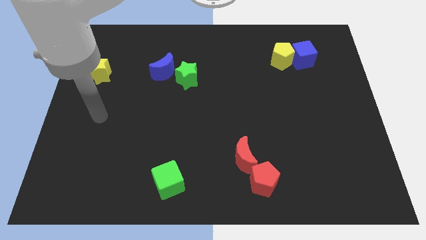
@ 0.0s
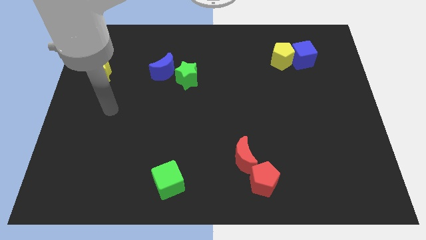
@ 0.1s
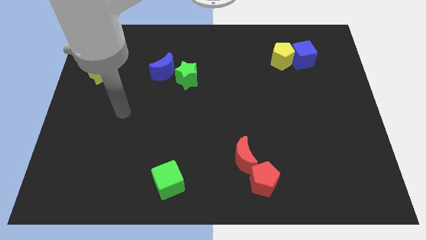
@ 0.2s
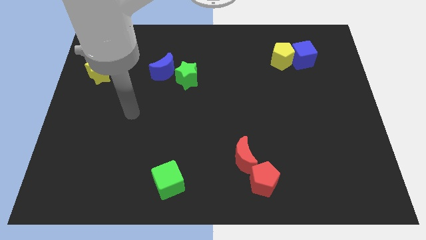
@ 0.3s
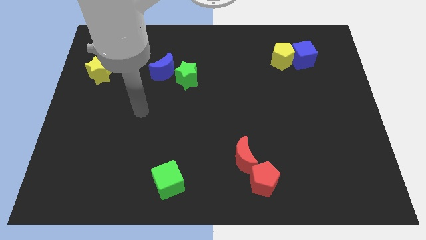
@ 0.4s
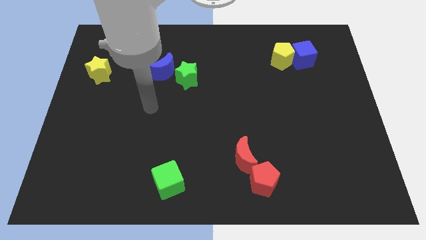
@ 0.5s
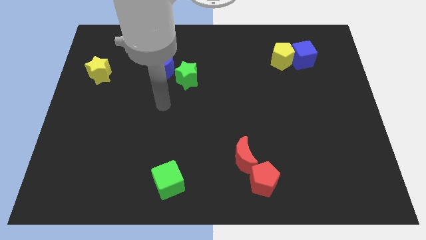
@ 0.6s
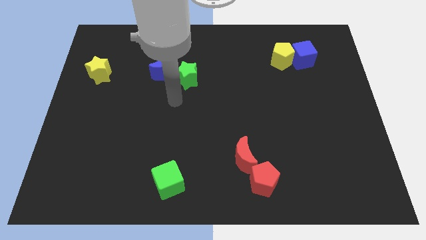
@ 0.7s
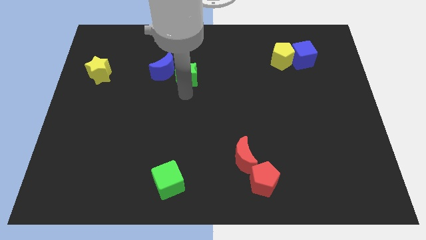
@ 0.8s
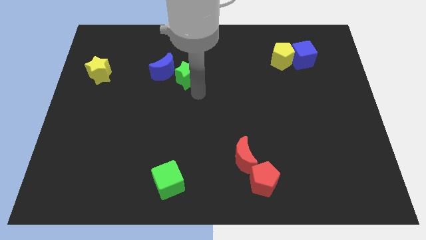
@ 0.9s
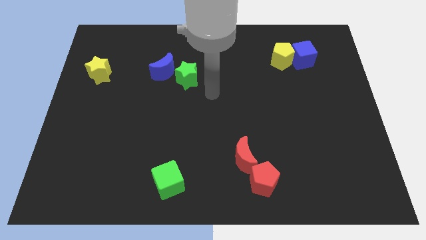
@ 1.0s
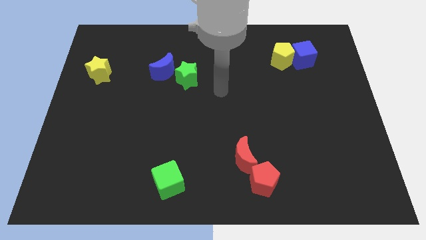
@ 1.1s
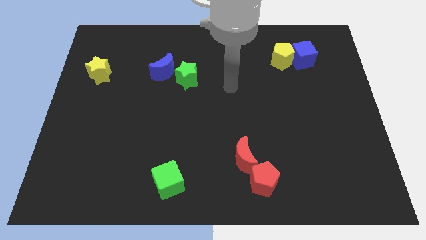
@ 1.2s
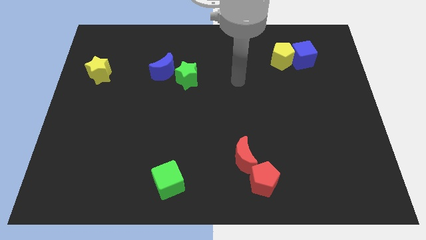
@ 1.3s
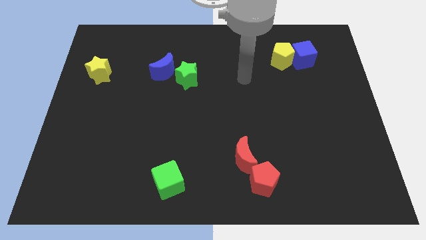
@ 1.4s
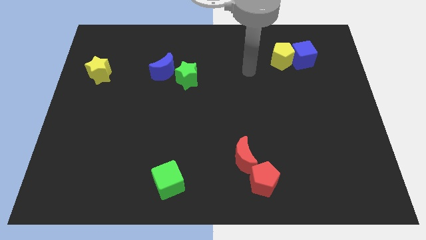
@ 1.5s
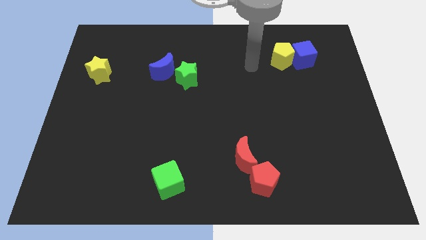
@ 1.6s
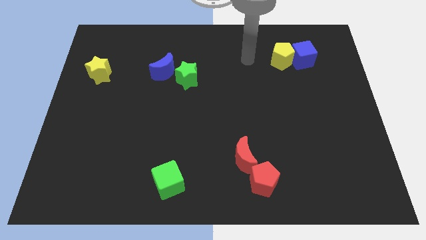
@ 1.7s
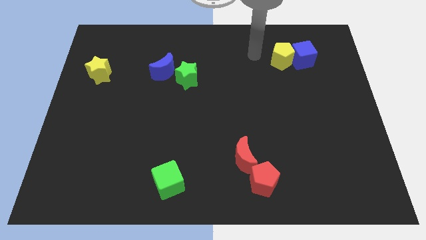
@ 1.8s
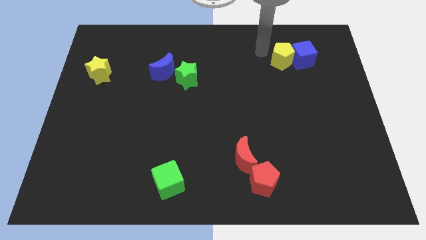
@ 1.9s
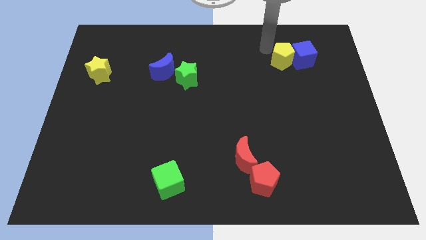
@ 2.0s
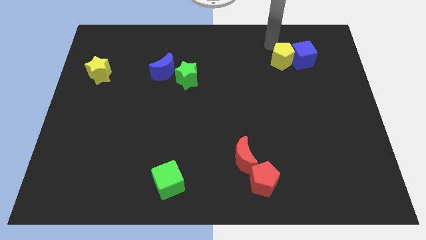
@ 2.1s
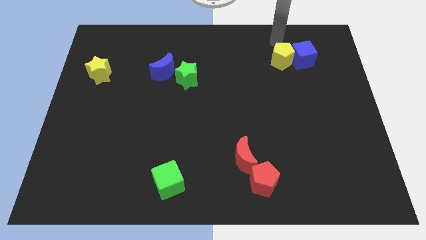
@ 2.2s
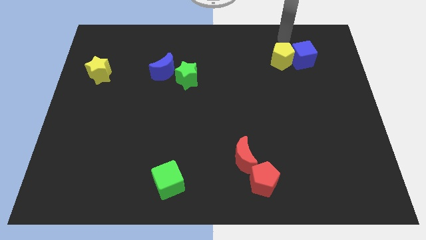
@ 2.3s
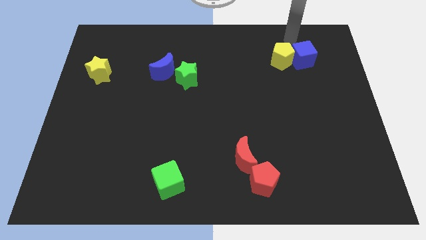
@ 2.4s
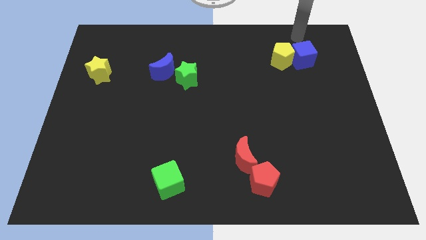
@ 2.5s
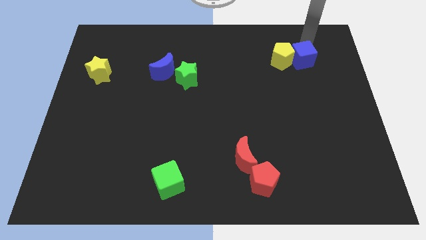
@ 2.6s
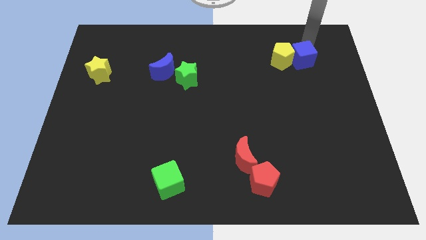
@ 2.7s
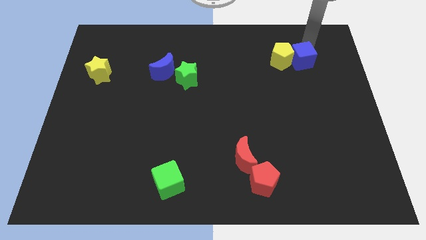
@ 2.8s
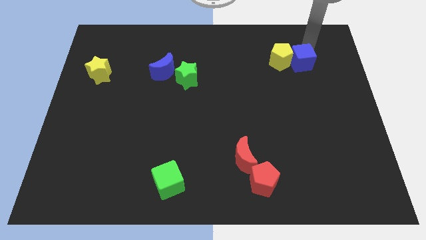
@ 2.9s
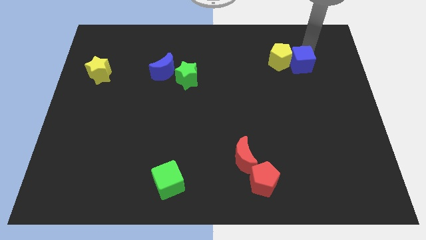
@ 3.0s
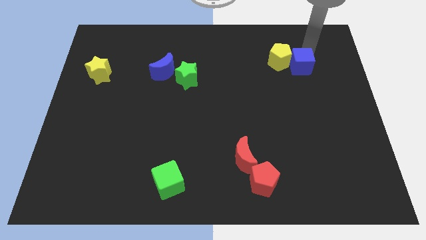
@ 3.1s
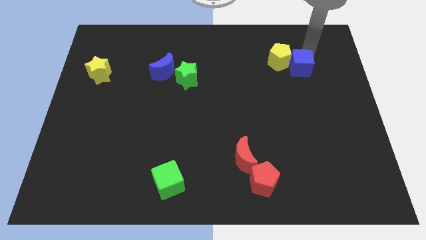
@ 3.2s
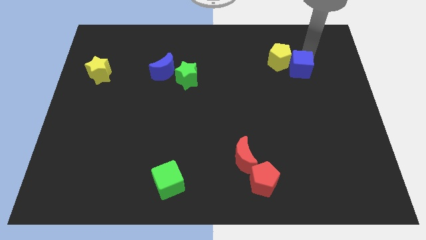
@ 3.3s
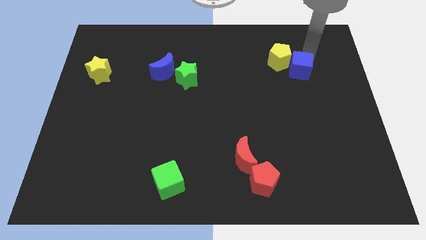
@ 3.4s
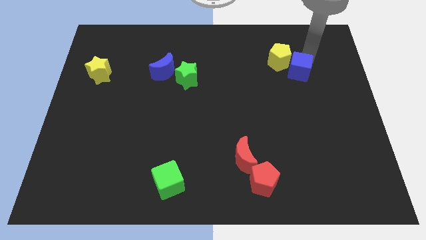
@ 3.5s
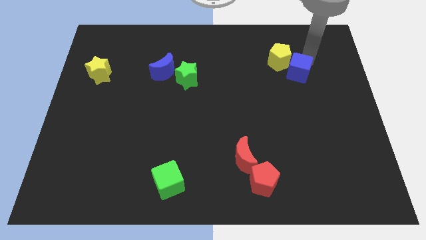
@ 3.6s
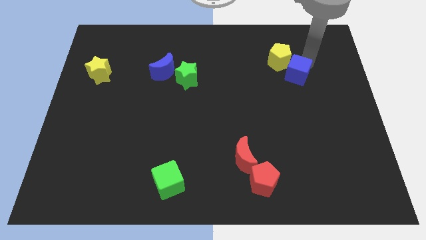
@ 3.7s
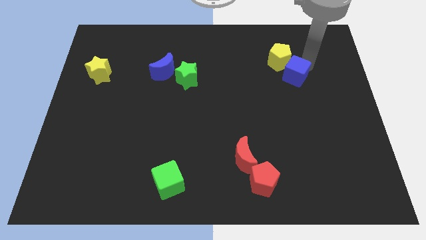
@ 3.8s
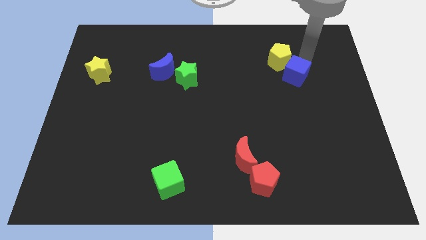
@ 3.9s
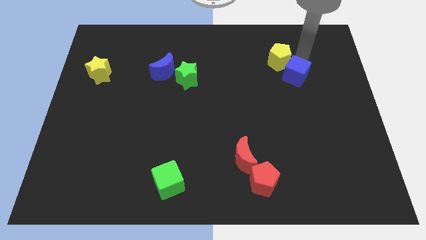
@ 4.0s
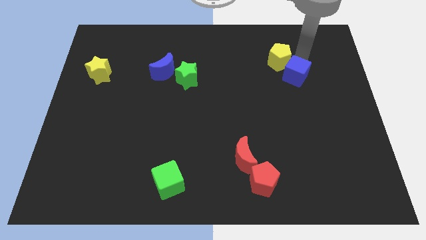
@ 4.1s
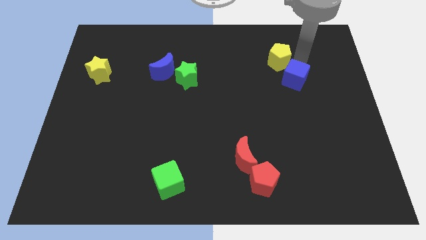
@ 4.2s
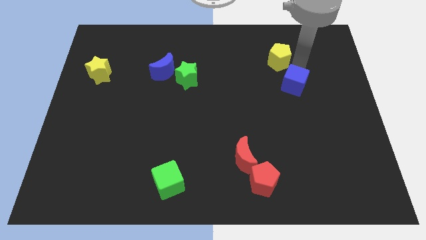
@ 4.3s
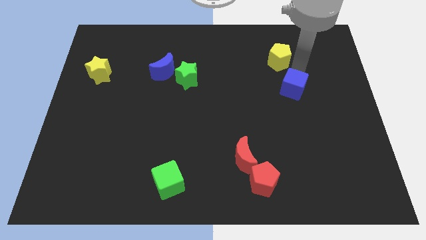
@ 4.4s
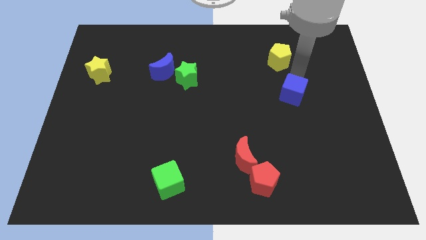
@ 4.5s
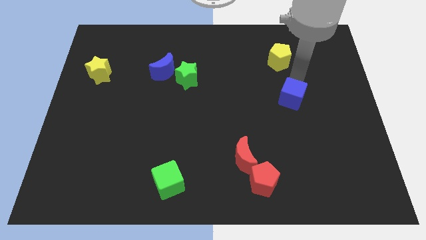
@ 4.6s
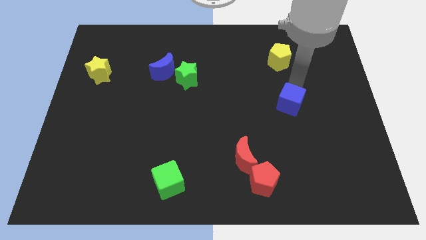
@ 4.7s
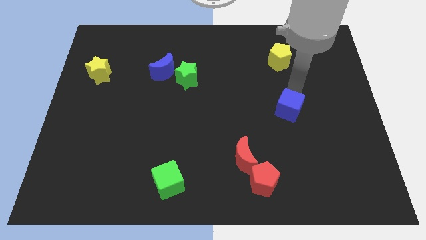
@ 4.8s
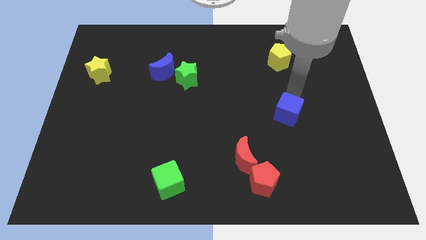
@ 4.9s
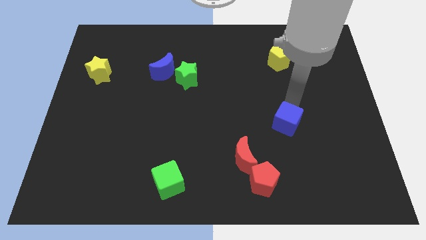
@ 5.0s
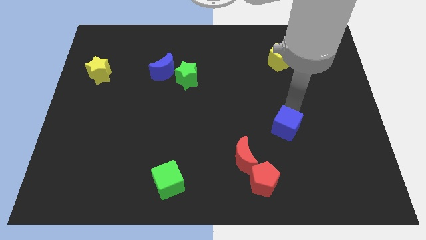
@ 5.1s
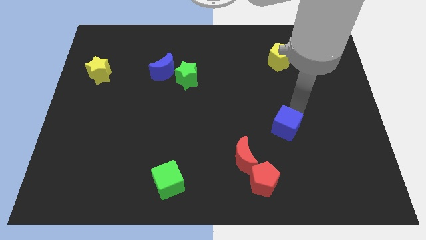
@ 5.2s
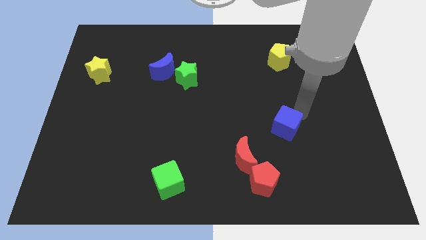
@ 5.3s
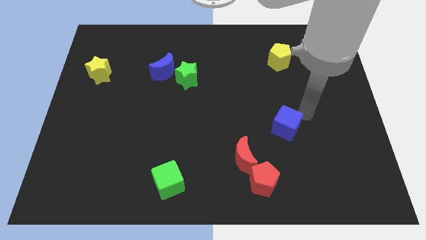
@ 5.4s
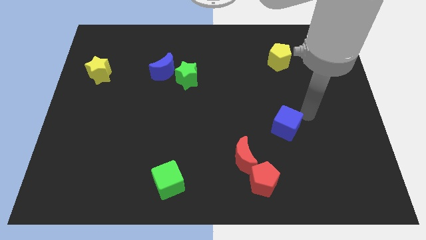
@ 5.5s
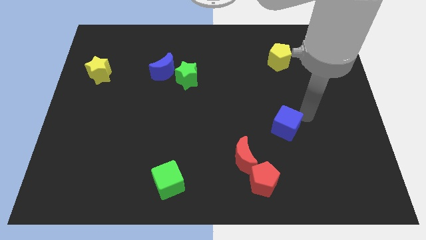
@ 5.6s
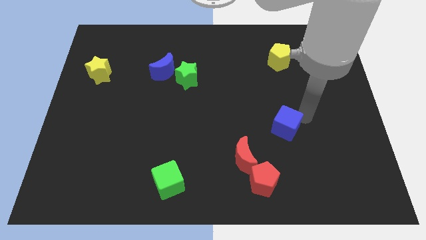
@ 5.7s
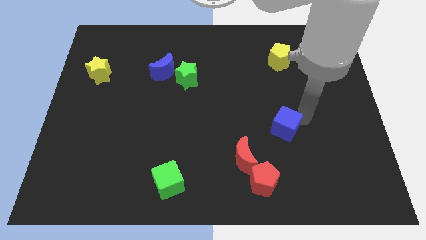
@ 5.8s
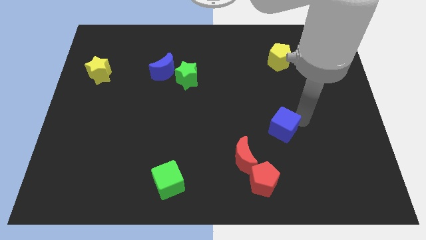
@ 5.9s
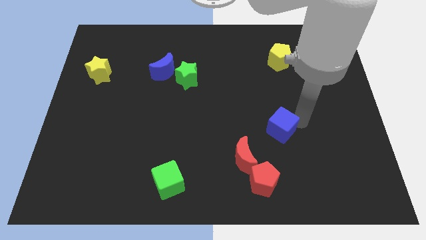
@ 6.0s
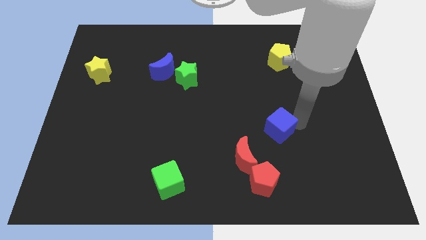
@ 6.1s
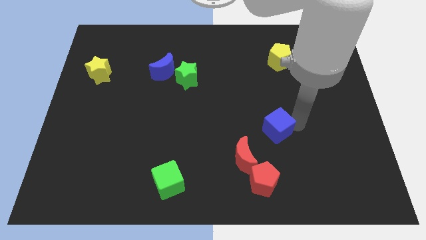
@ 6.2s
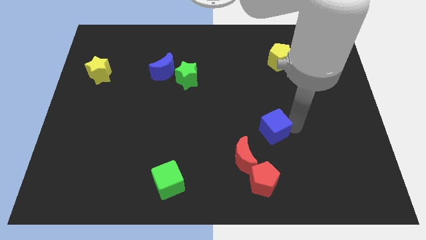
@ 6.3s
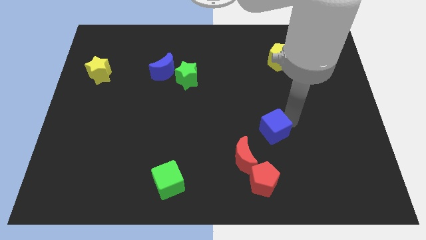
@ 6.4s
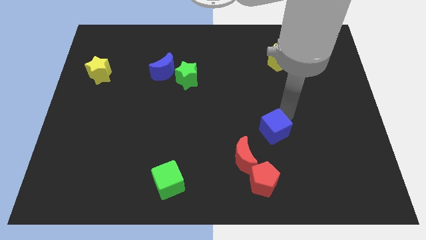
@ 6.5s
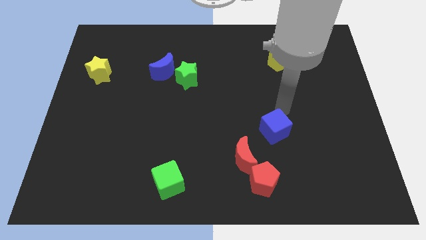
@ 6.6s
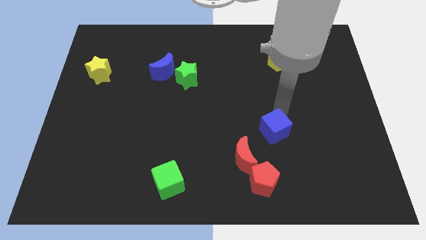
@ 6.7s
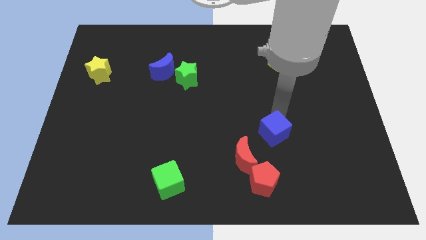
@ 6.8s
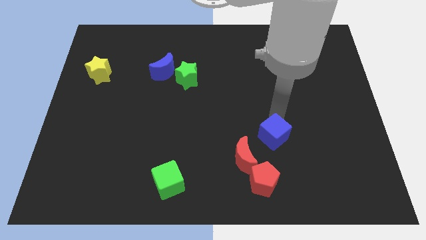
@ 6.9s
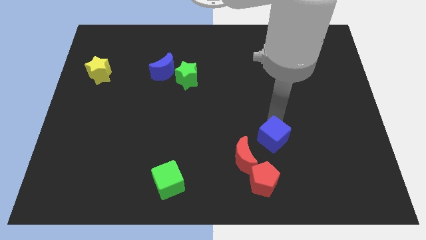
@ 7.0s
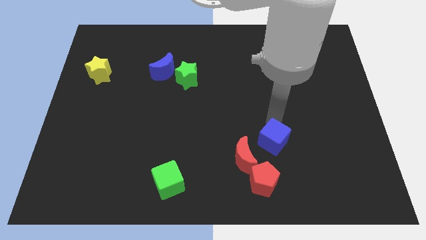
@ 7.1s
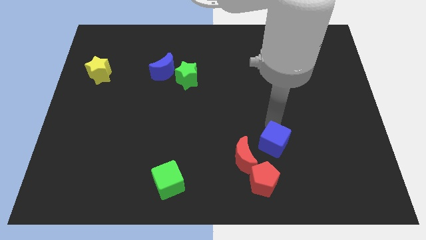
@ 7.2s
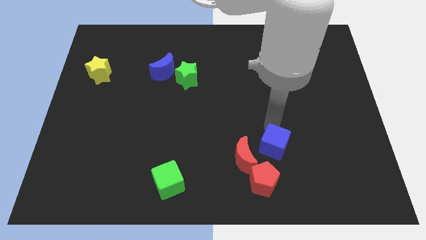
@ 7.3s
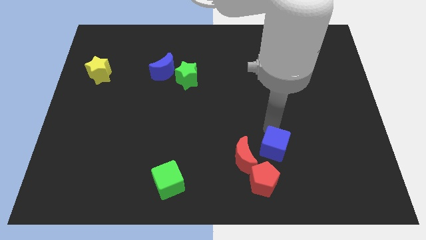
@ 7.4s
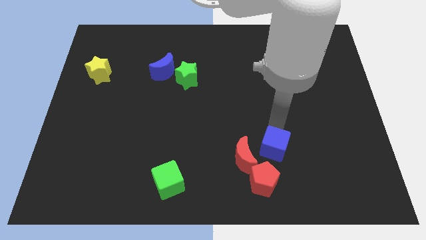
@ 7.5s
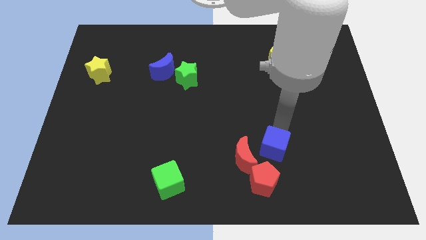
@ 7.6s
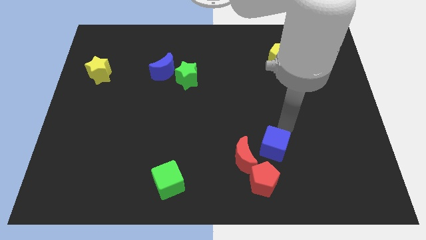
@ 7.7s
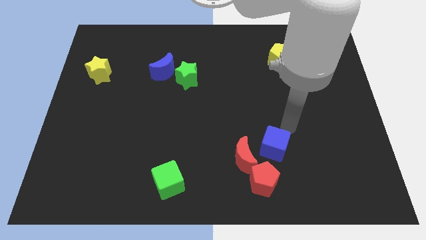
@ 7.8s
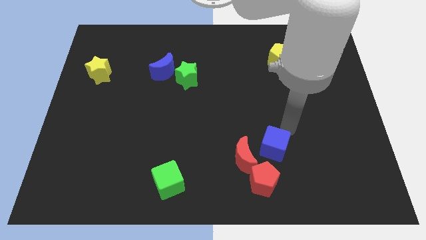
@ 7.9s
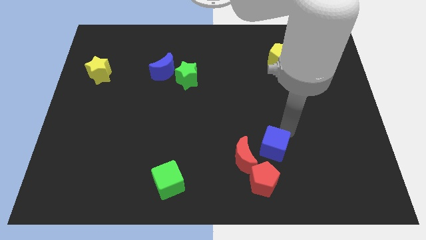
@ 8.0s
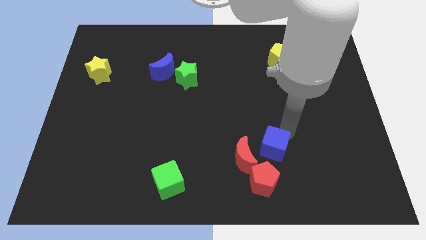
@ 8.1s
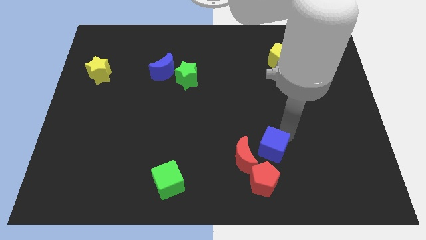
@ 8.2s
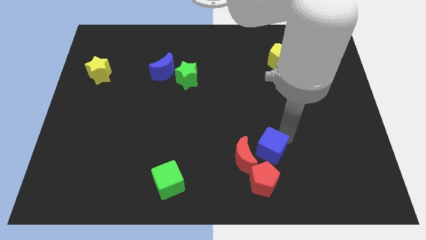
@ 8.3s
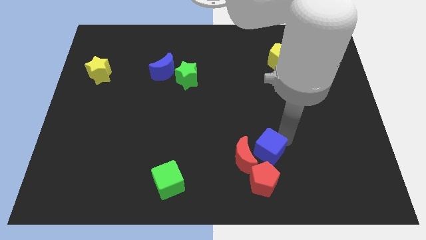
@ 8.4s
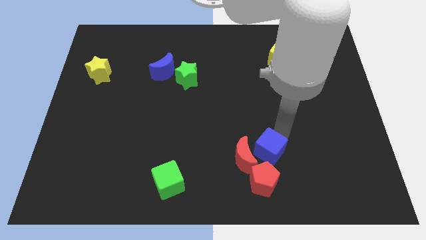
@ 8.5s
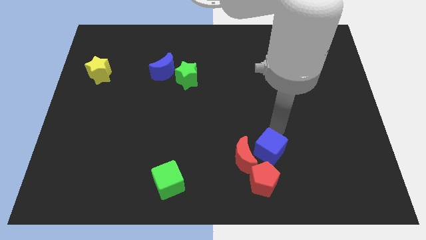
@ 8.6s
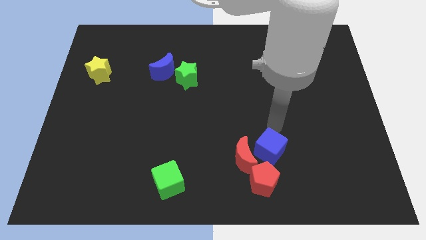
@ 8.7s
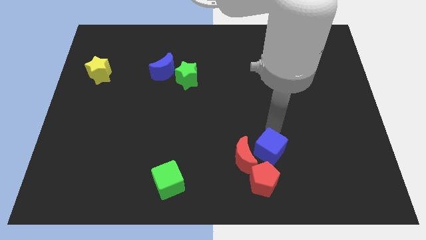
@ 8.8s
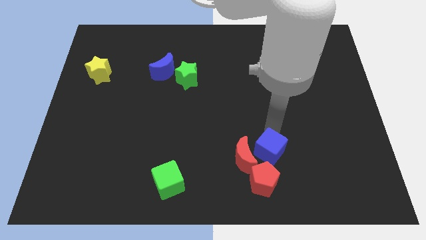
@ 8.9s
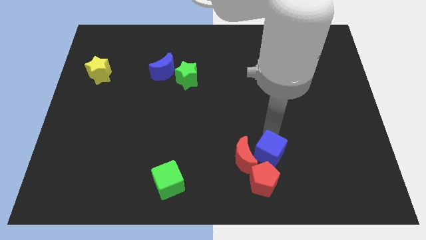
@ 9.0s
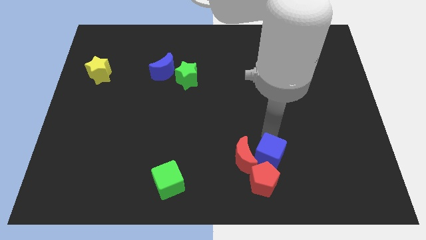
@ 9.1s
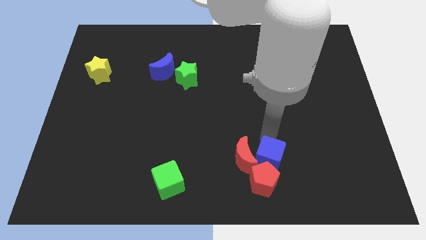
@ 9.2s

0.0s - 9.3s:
push the blue cube to the red pentagon
